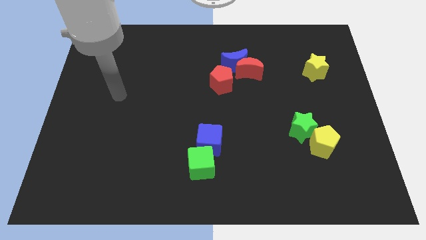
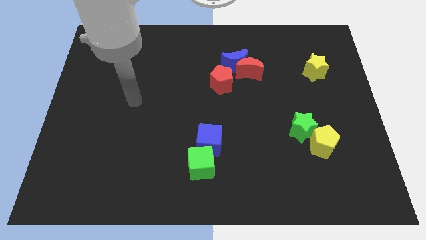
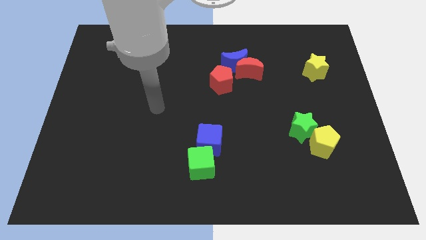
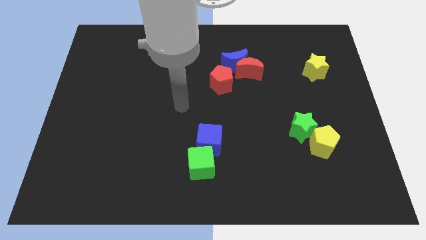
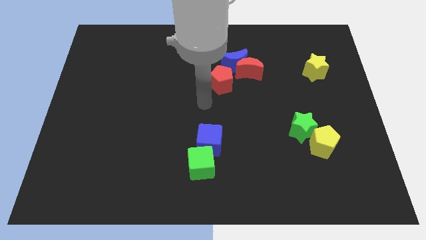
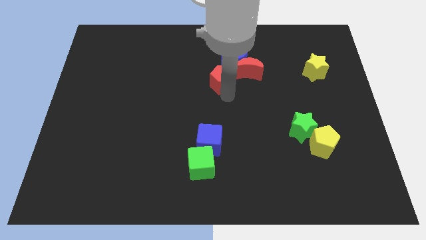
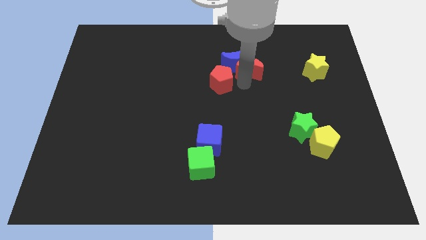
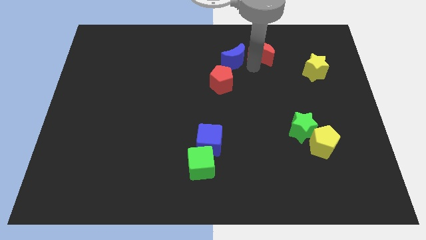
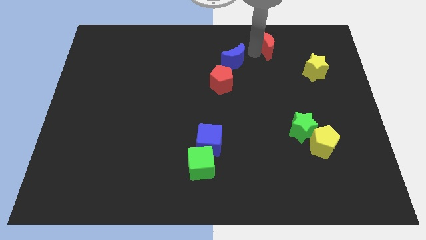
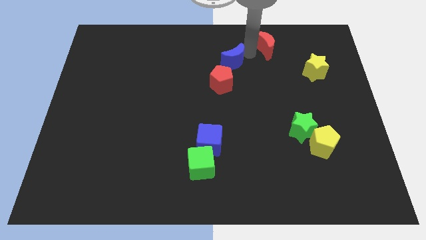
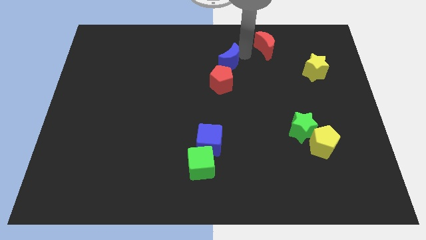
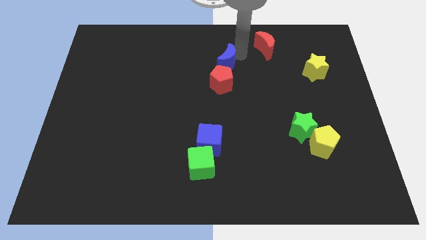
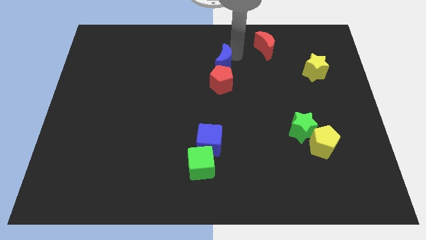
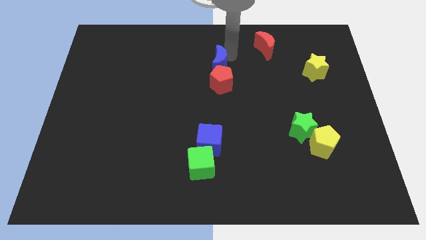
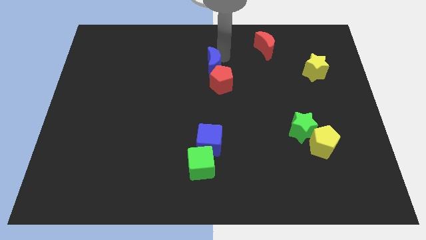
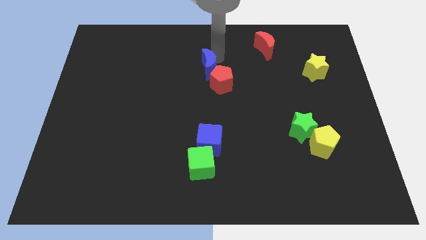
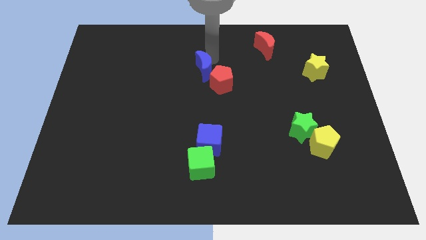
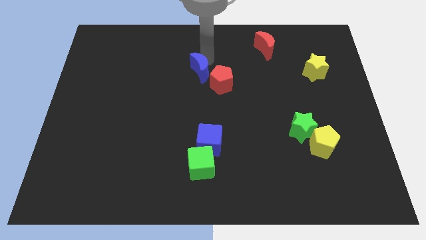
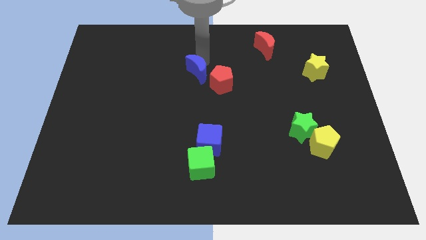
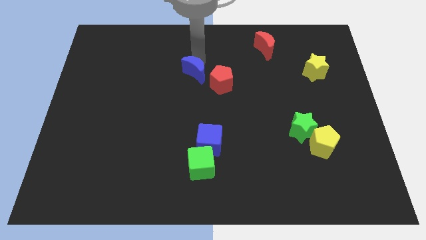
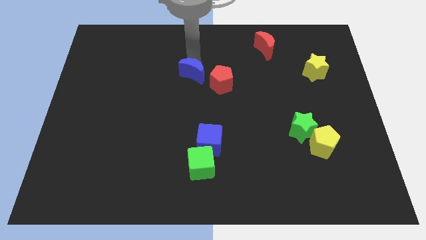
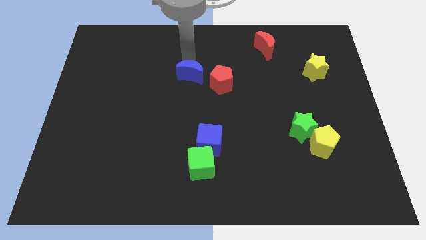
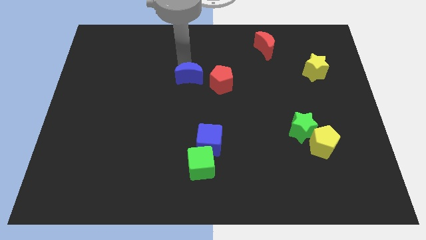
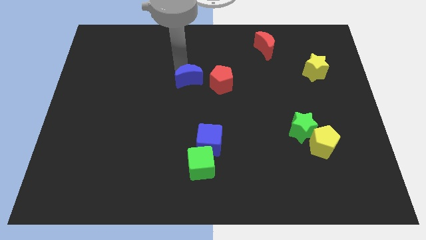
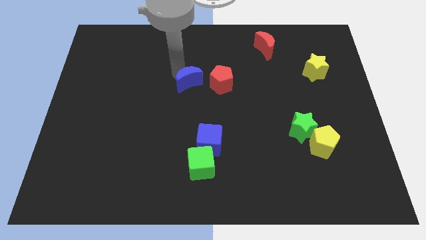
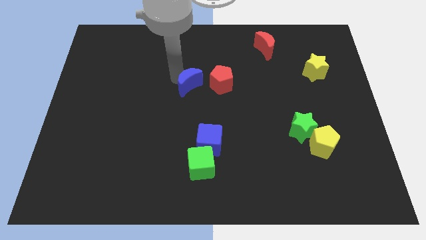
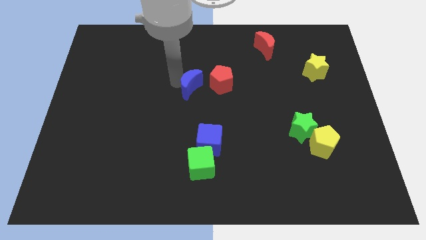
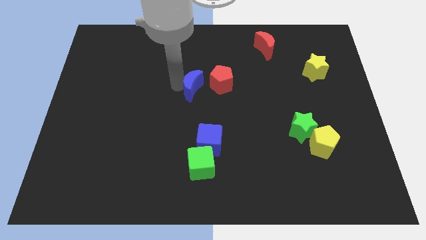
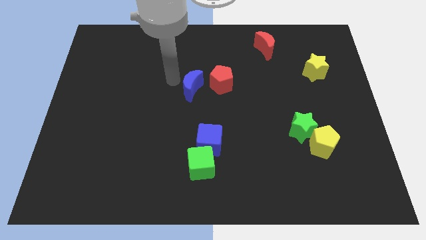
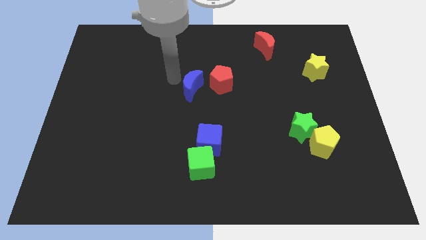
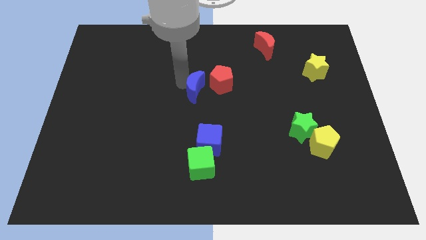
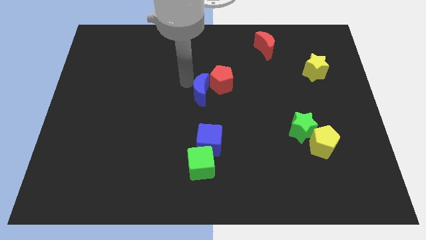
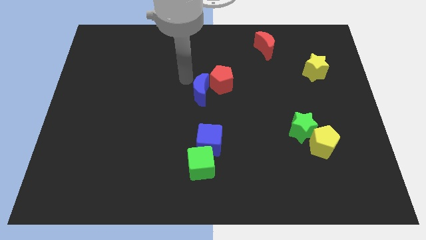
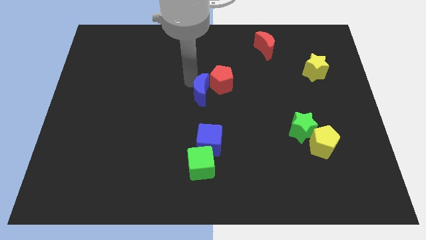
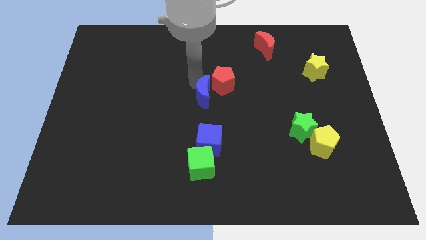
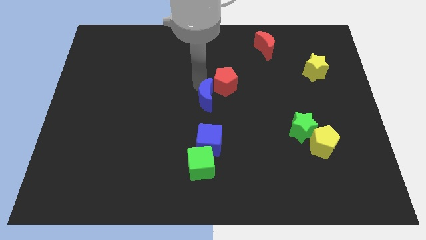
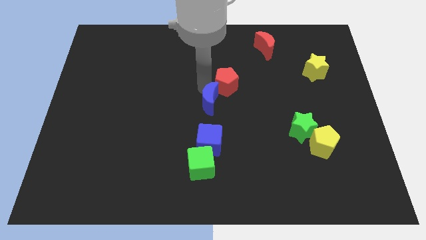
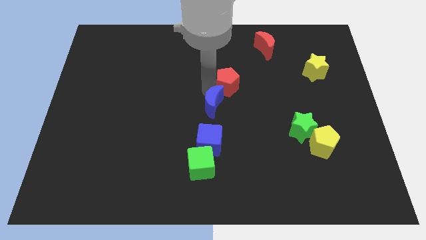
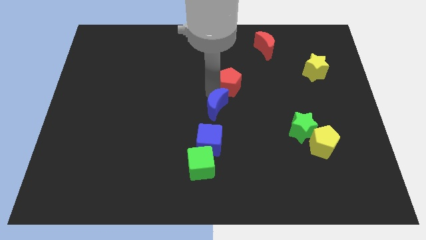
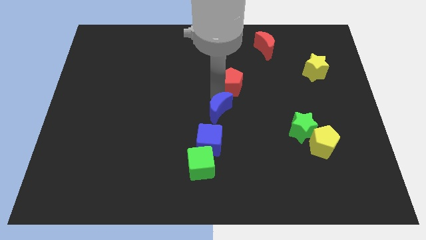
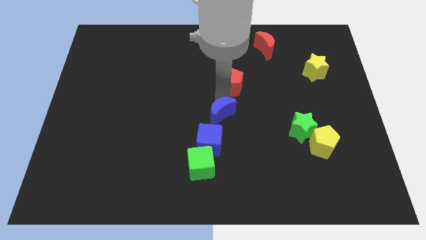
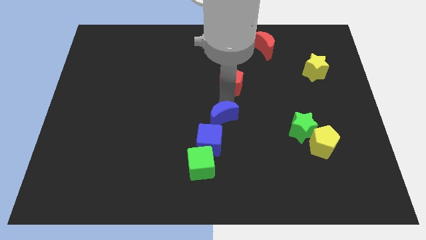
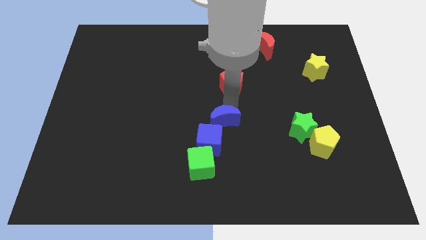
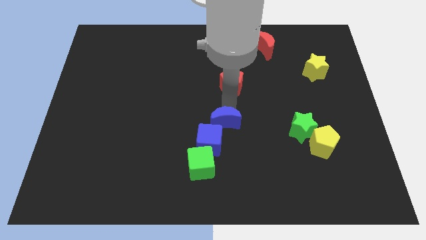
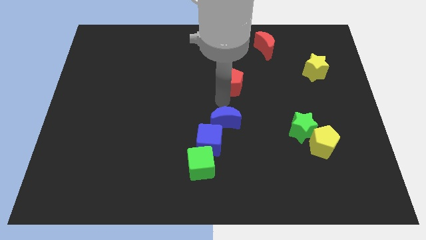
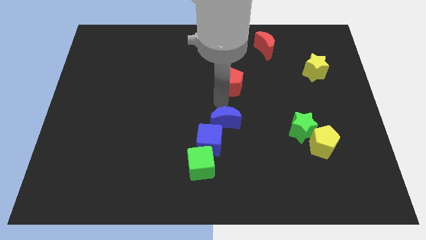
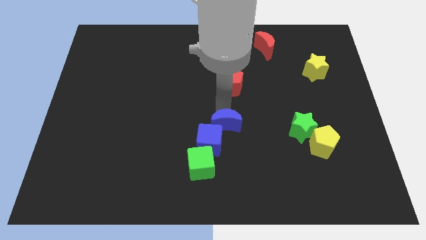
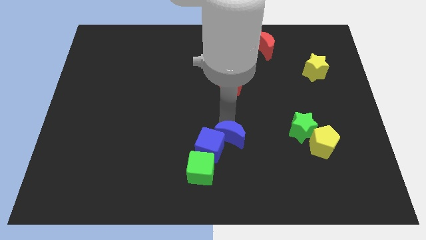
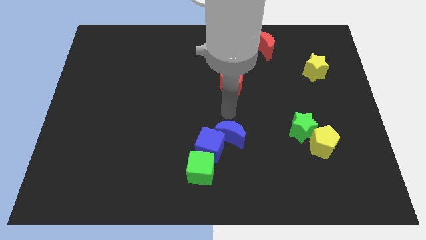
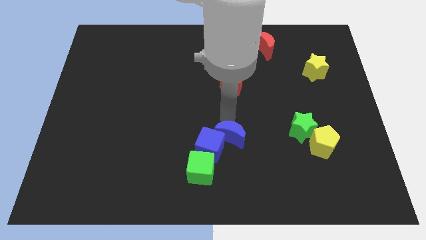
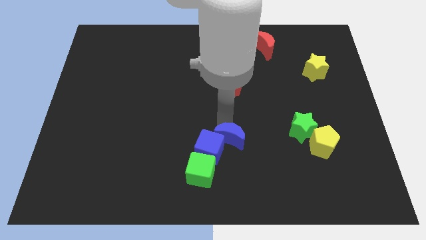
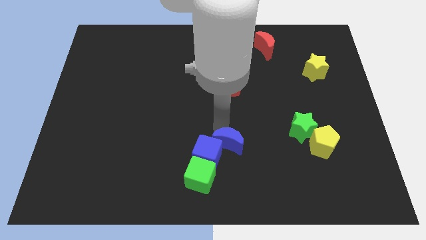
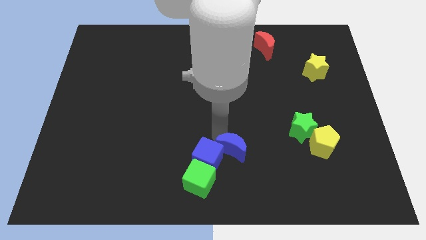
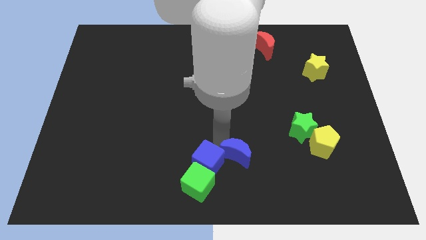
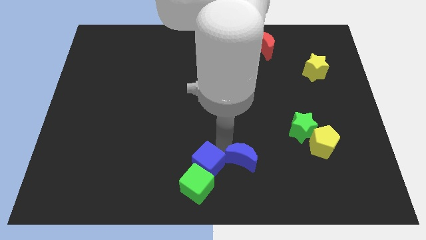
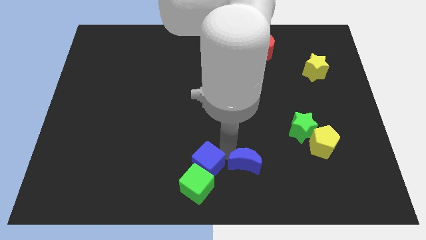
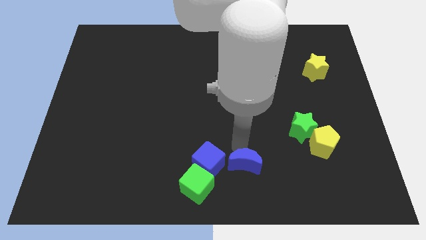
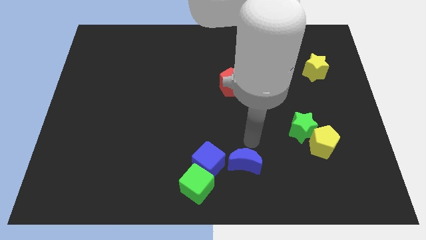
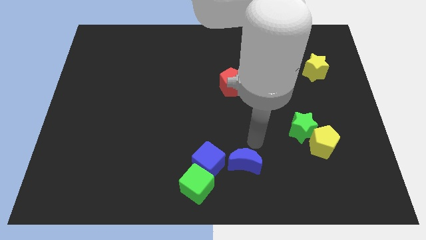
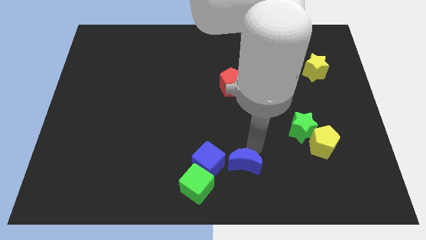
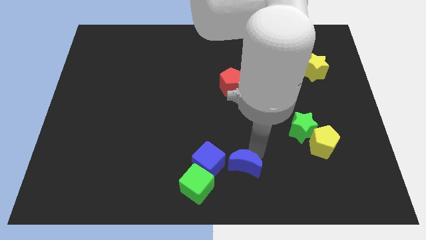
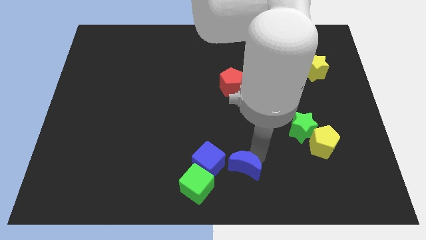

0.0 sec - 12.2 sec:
move the blue moon to the bottom right side of the blue cube
